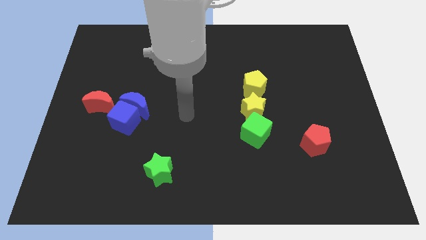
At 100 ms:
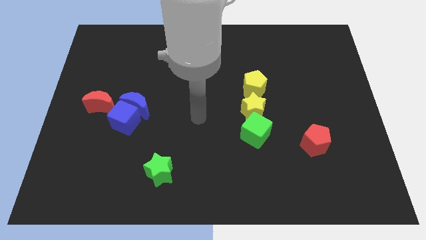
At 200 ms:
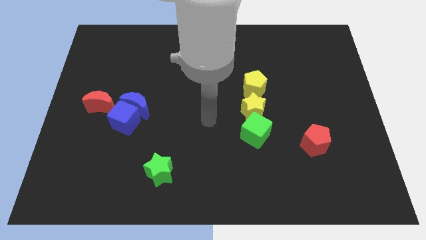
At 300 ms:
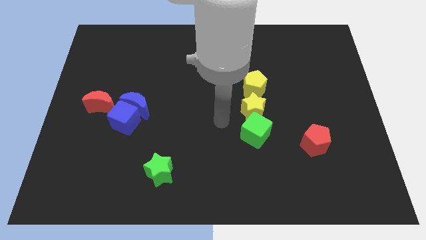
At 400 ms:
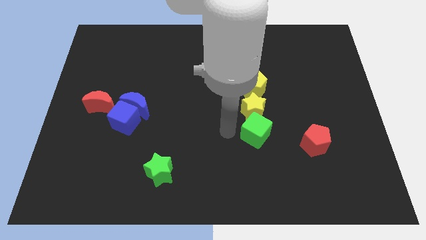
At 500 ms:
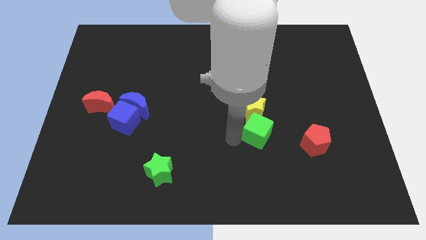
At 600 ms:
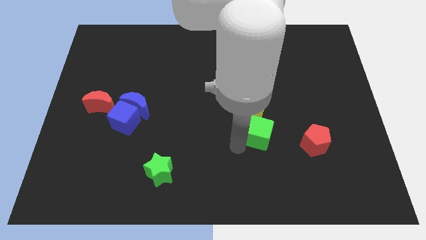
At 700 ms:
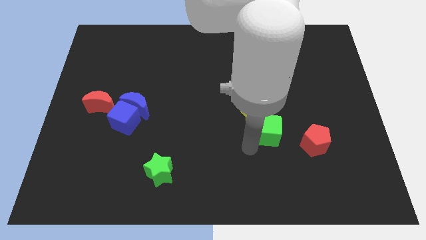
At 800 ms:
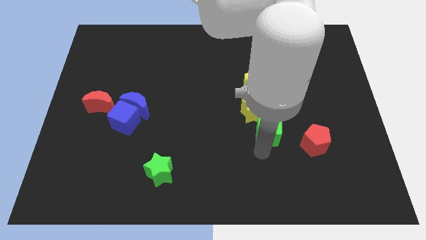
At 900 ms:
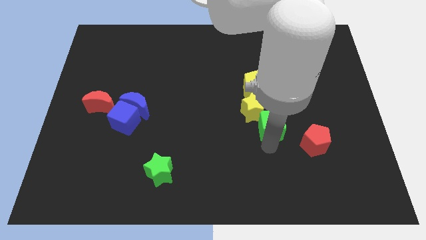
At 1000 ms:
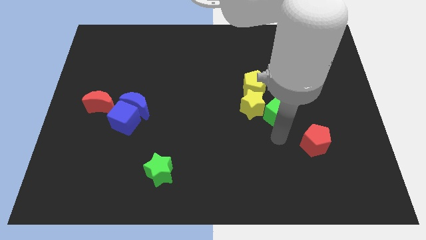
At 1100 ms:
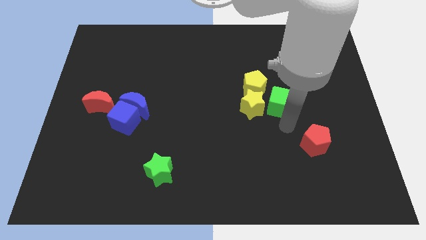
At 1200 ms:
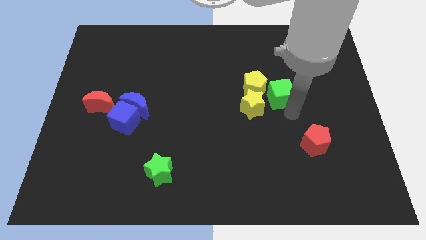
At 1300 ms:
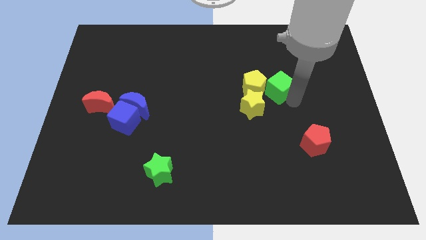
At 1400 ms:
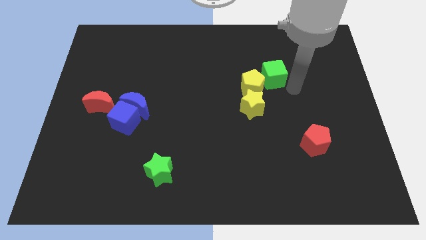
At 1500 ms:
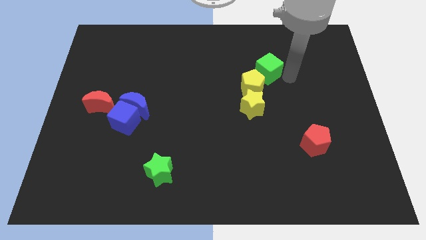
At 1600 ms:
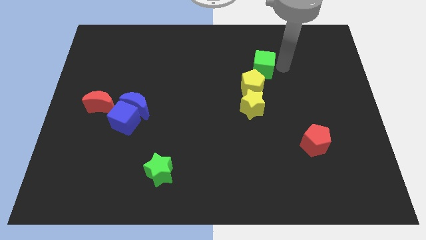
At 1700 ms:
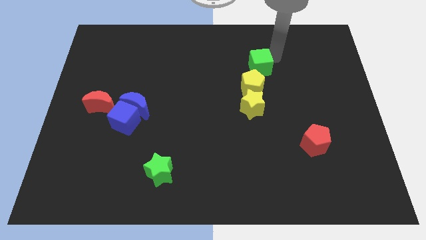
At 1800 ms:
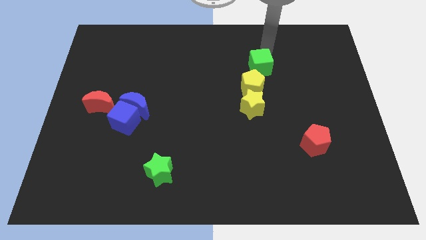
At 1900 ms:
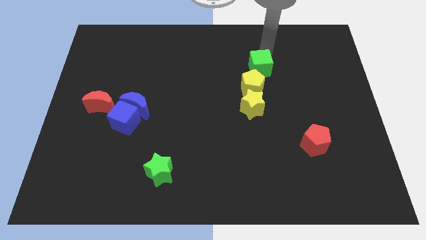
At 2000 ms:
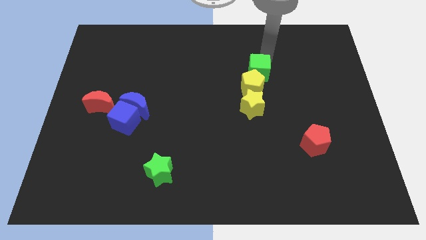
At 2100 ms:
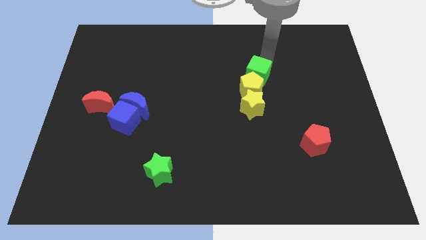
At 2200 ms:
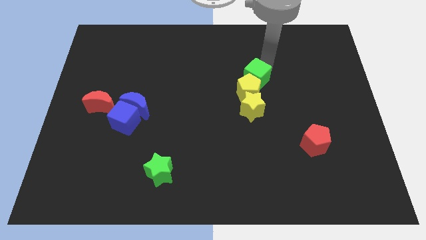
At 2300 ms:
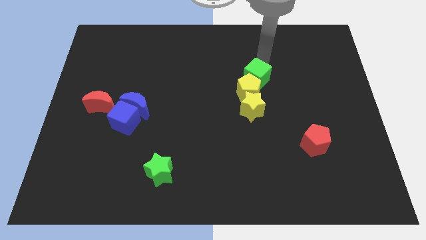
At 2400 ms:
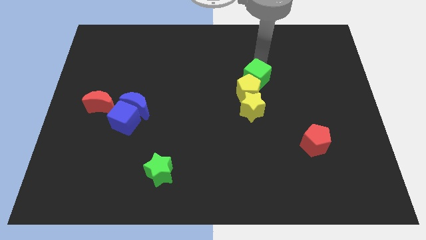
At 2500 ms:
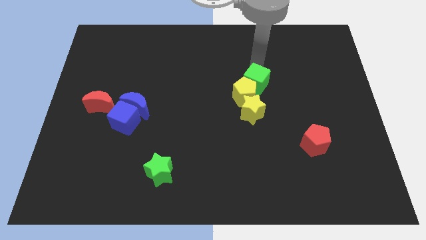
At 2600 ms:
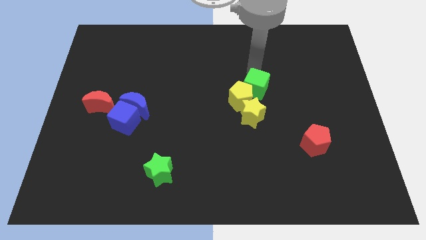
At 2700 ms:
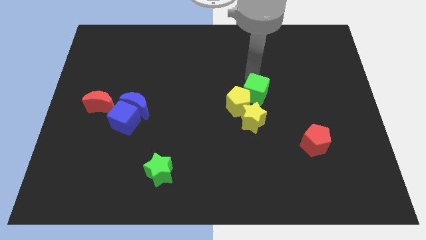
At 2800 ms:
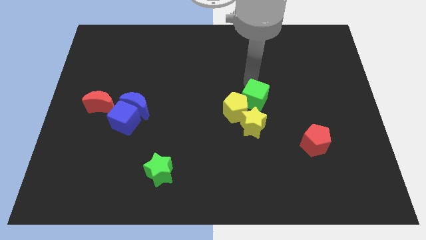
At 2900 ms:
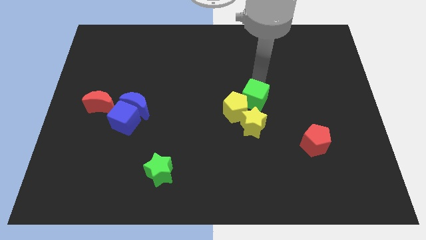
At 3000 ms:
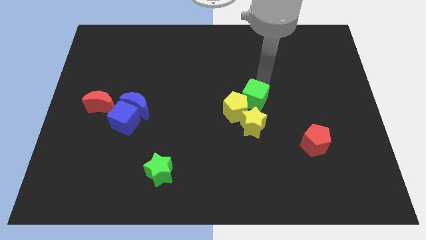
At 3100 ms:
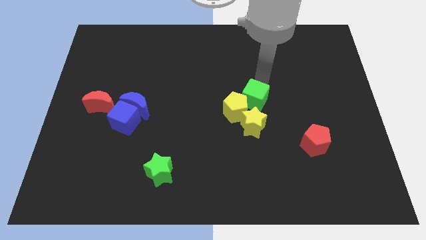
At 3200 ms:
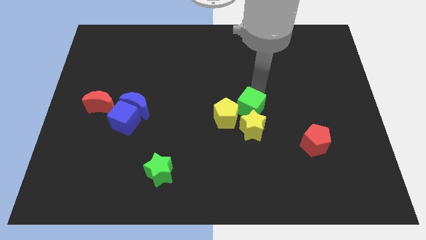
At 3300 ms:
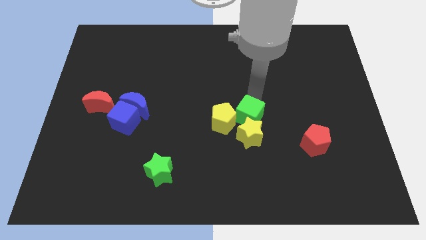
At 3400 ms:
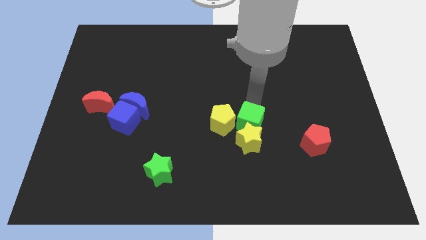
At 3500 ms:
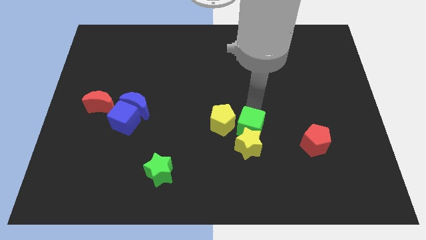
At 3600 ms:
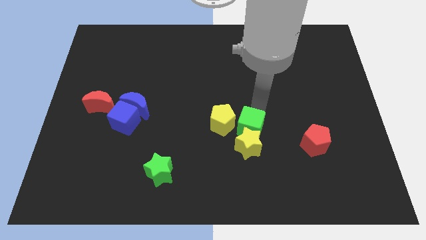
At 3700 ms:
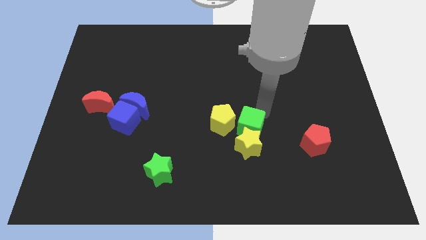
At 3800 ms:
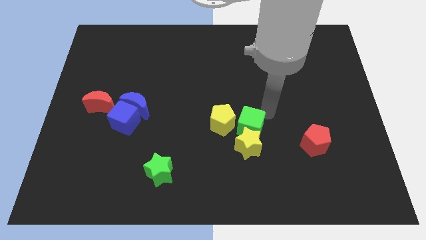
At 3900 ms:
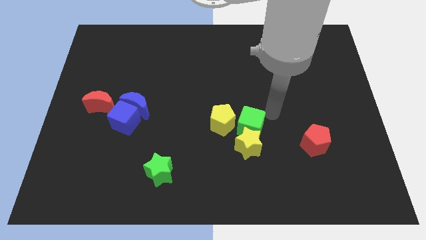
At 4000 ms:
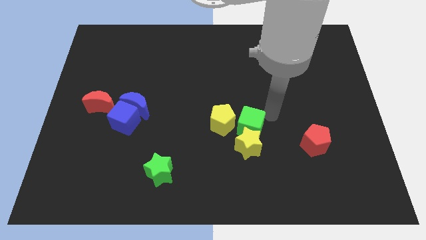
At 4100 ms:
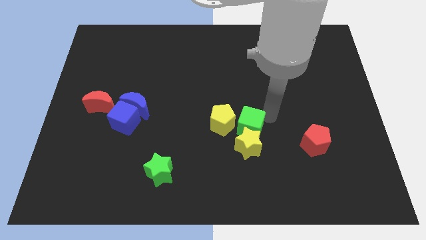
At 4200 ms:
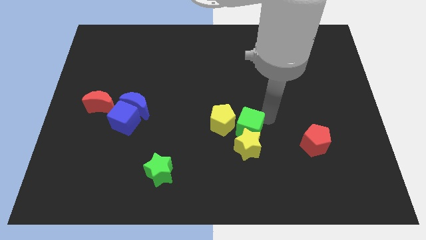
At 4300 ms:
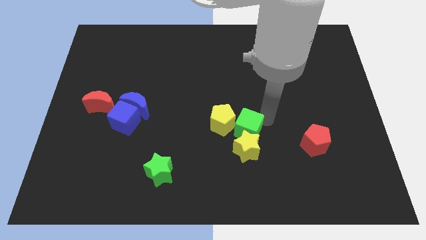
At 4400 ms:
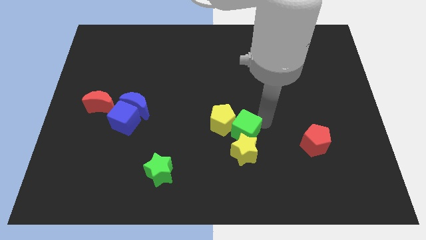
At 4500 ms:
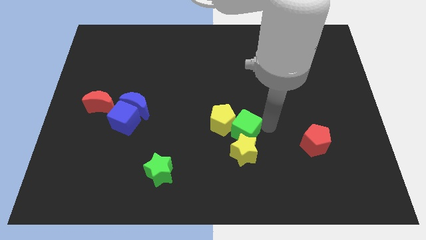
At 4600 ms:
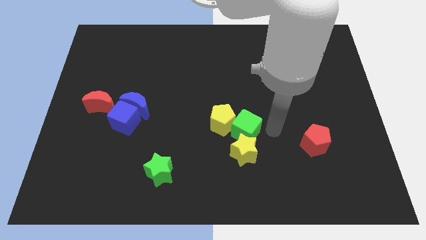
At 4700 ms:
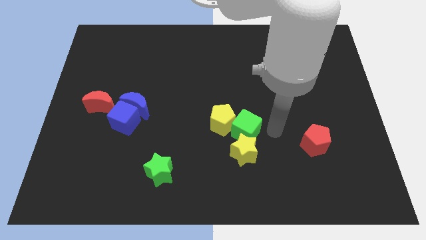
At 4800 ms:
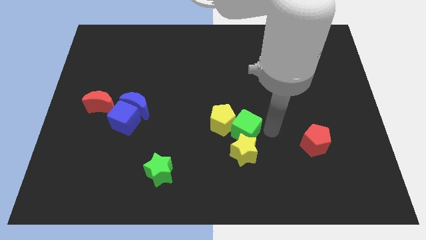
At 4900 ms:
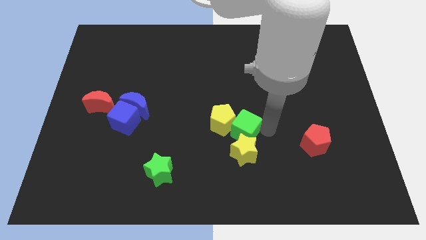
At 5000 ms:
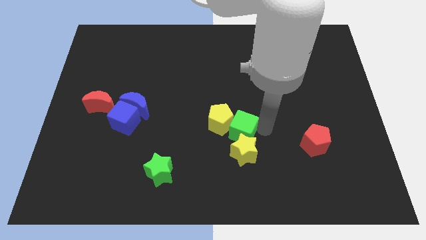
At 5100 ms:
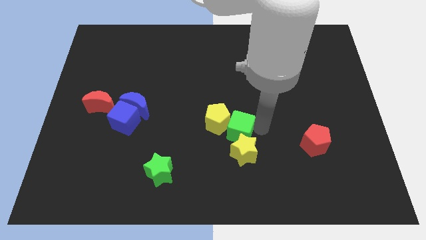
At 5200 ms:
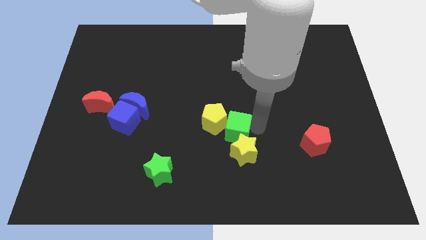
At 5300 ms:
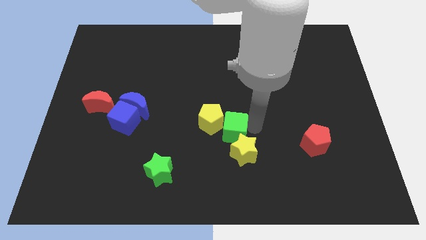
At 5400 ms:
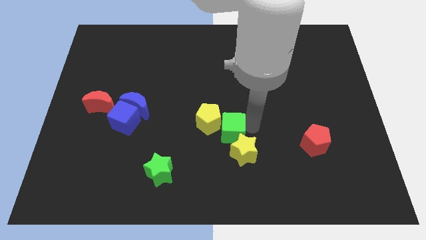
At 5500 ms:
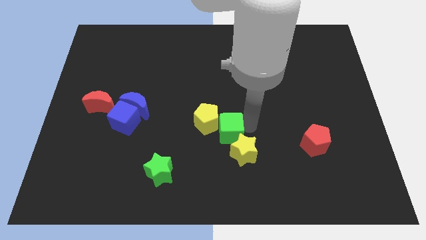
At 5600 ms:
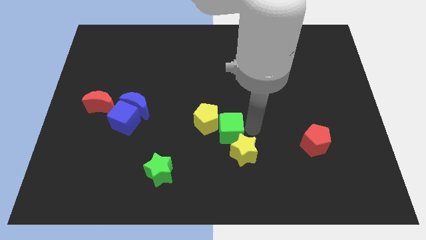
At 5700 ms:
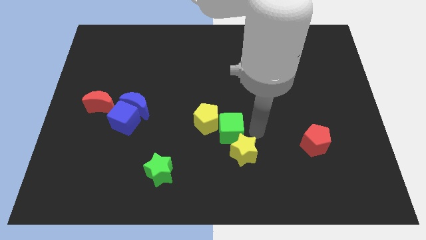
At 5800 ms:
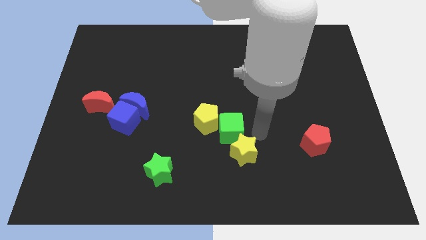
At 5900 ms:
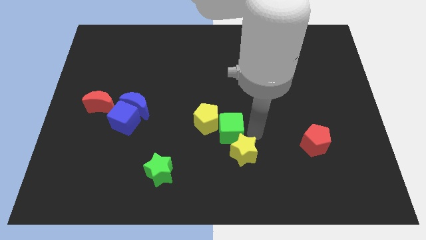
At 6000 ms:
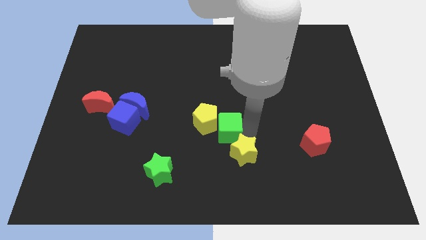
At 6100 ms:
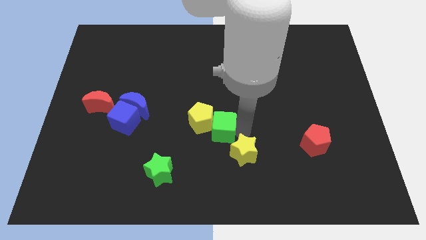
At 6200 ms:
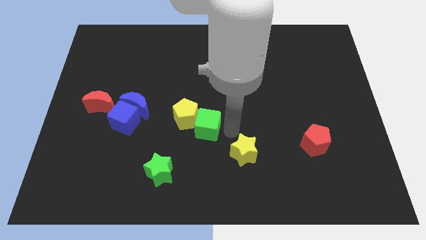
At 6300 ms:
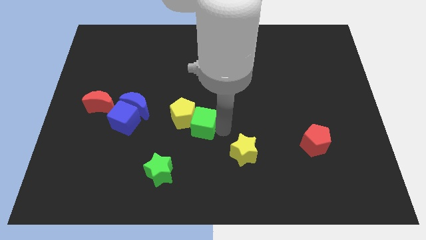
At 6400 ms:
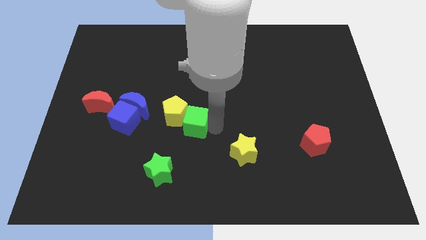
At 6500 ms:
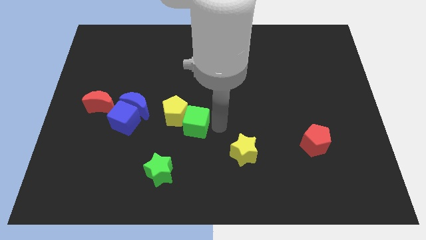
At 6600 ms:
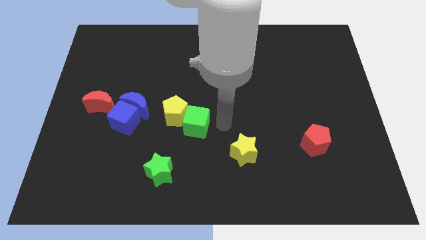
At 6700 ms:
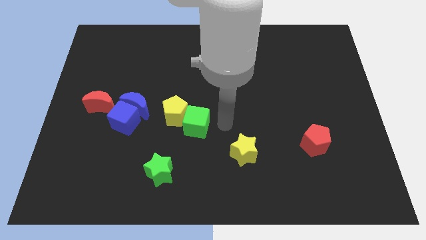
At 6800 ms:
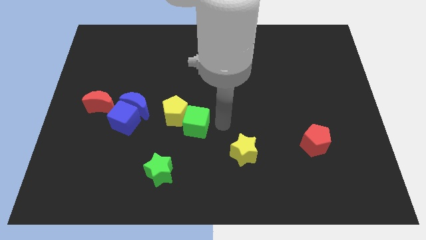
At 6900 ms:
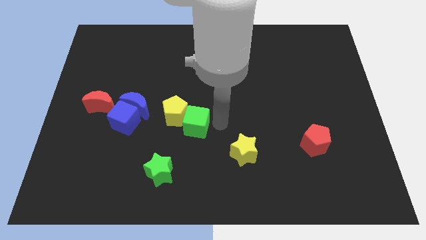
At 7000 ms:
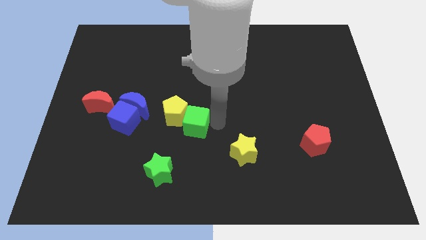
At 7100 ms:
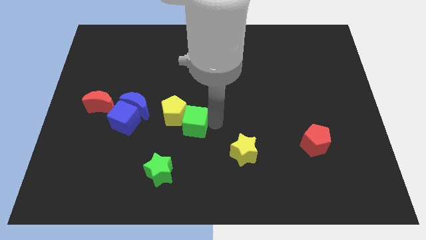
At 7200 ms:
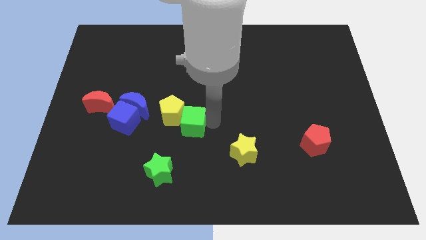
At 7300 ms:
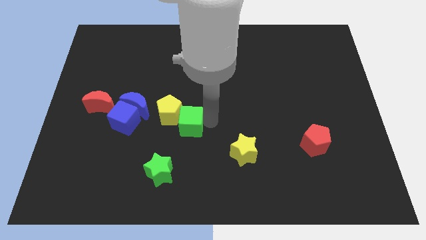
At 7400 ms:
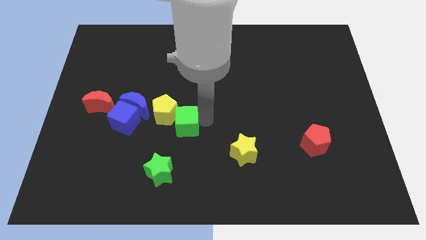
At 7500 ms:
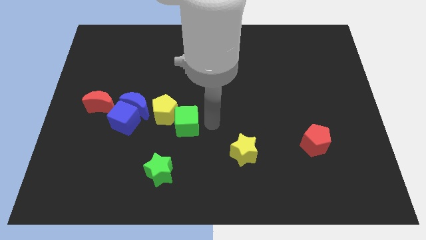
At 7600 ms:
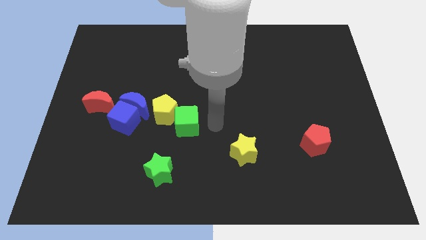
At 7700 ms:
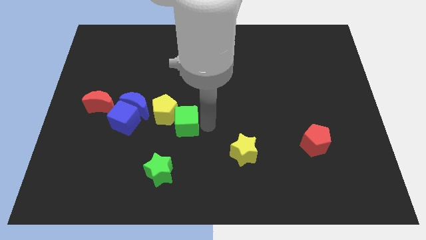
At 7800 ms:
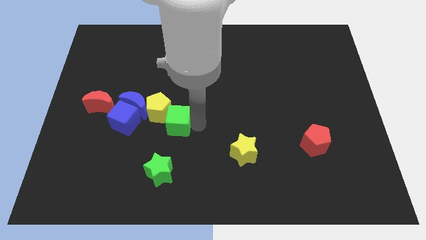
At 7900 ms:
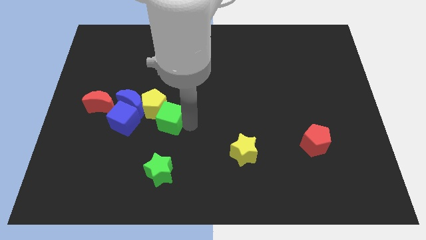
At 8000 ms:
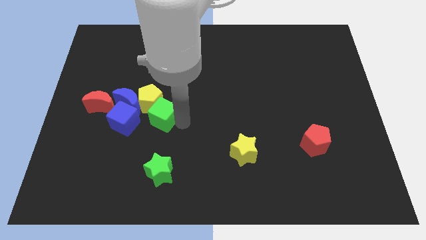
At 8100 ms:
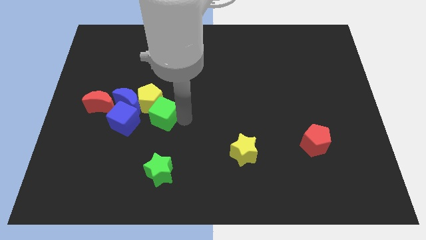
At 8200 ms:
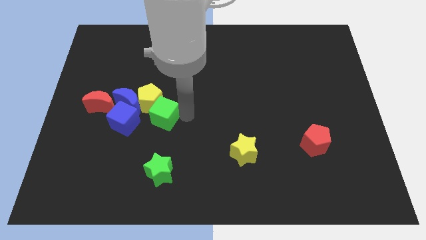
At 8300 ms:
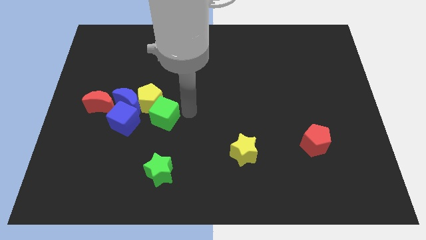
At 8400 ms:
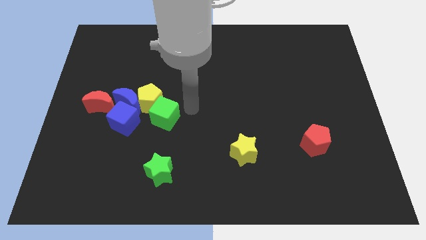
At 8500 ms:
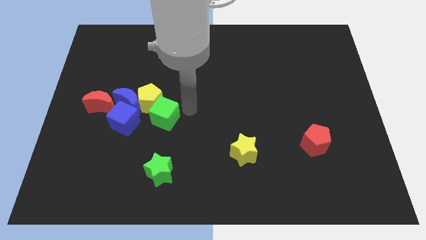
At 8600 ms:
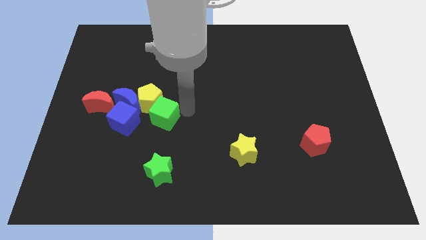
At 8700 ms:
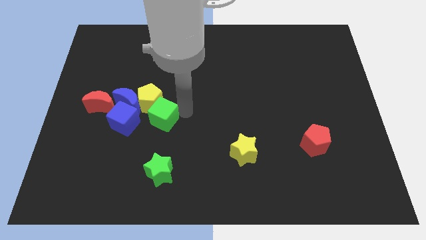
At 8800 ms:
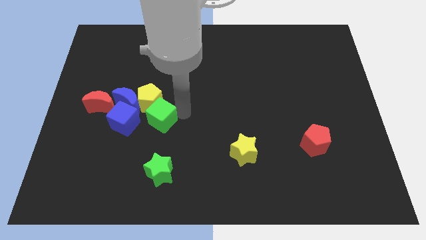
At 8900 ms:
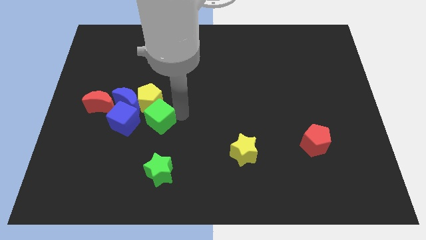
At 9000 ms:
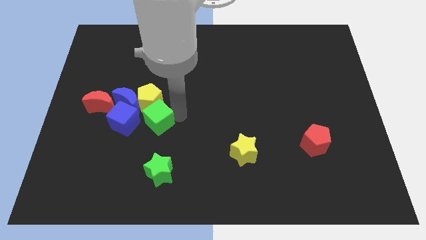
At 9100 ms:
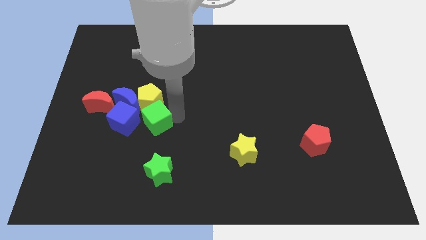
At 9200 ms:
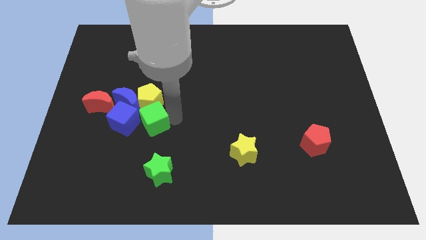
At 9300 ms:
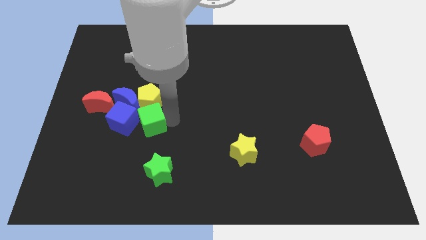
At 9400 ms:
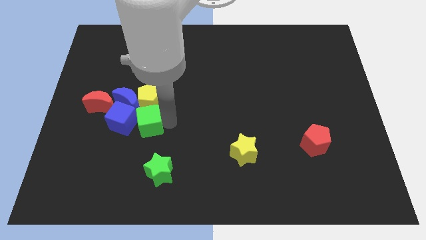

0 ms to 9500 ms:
put the green cube towards the blue cube
